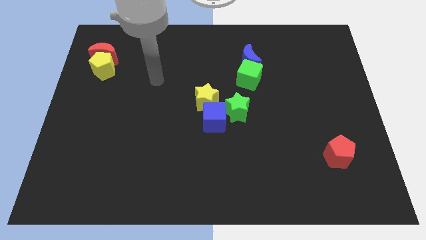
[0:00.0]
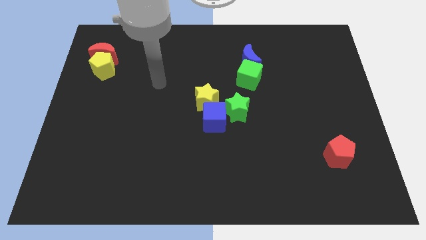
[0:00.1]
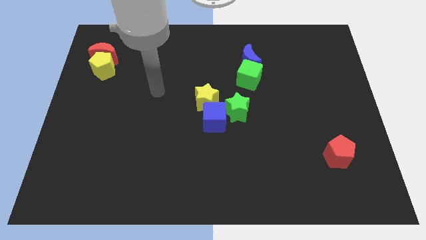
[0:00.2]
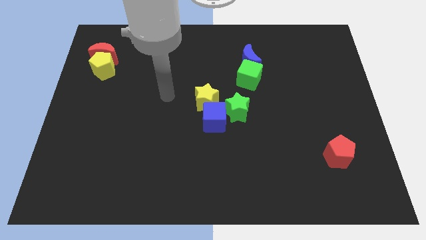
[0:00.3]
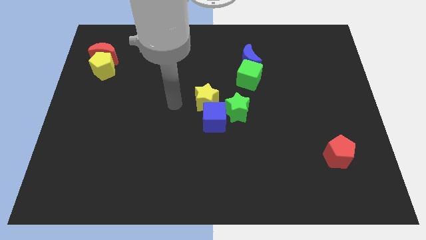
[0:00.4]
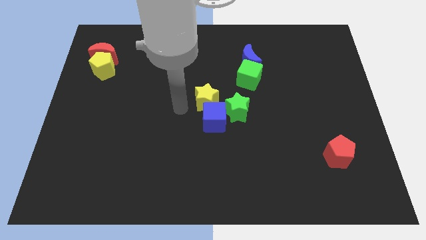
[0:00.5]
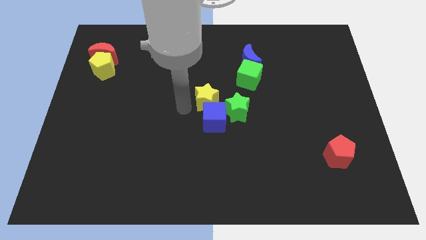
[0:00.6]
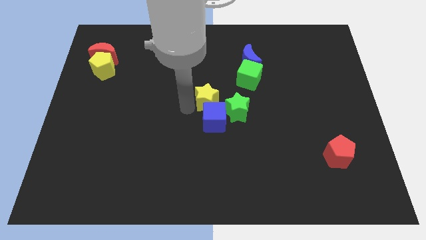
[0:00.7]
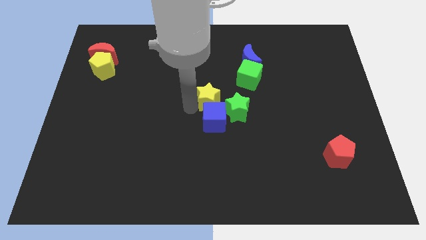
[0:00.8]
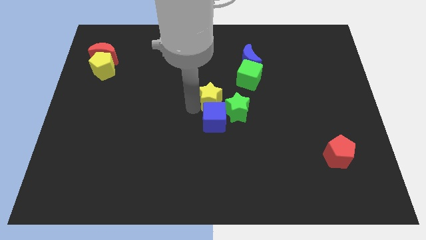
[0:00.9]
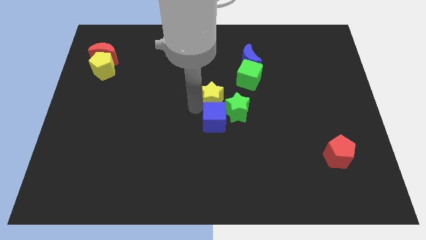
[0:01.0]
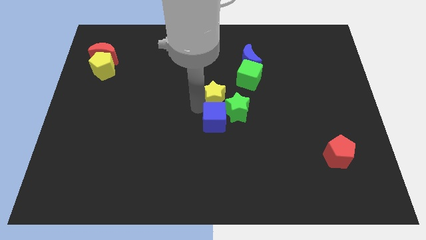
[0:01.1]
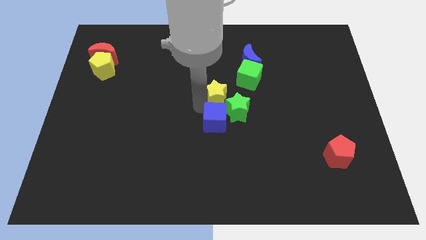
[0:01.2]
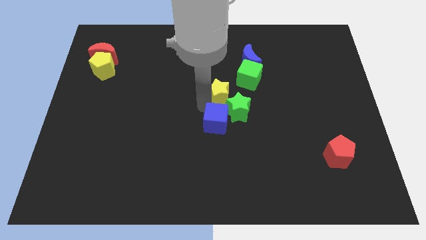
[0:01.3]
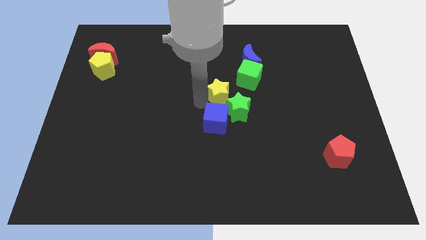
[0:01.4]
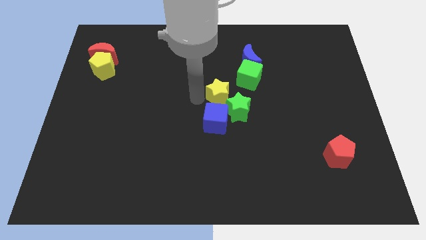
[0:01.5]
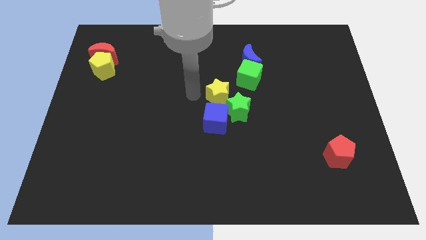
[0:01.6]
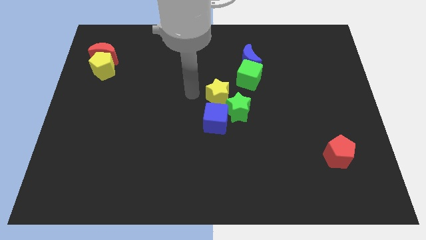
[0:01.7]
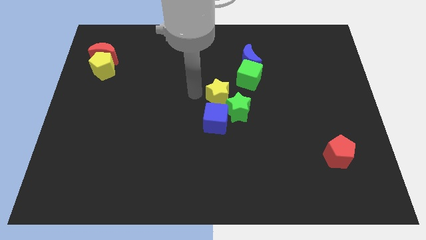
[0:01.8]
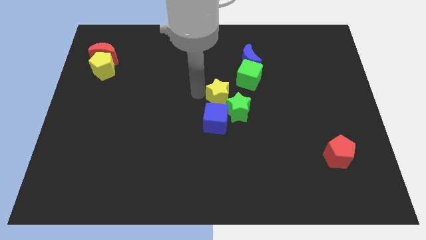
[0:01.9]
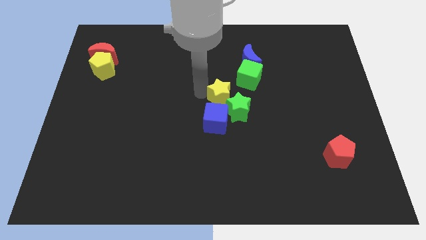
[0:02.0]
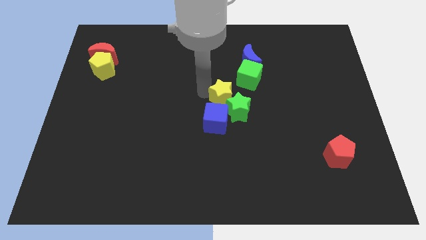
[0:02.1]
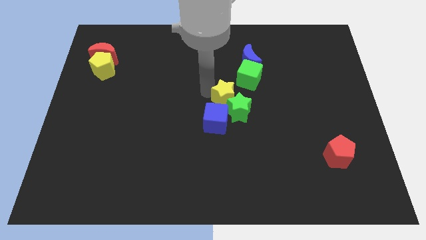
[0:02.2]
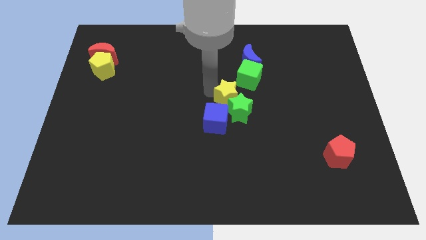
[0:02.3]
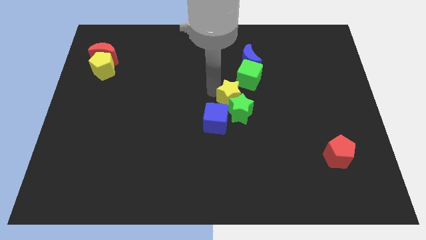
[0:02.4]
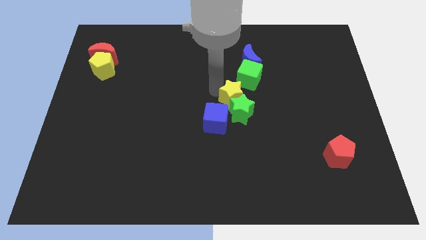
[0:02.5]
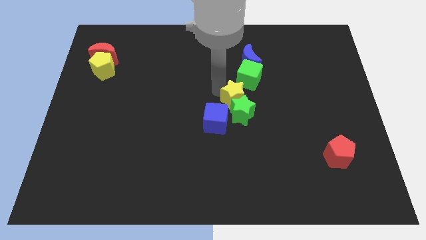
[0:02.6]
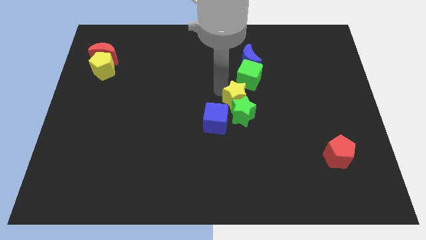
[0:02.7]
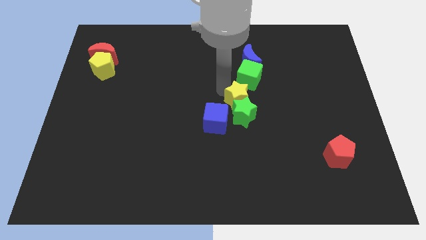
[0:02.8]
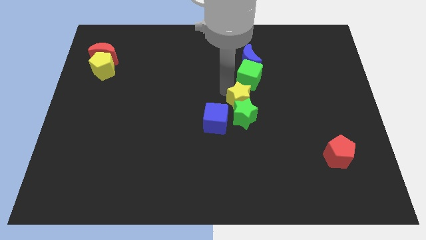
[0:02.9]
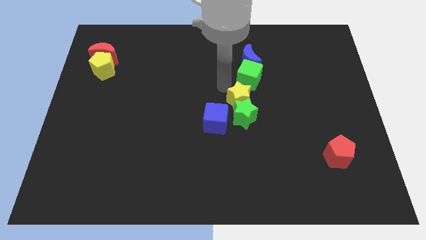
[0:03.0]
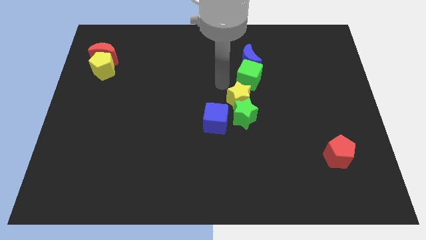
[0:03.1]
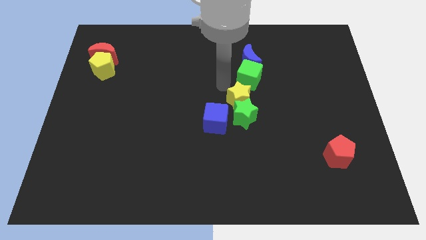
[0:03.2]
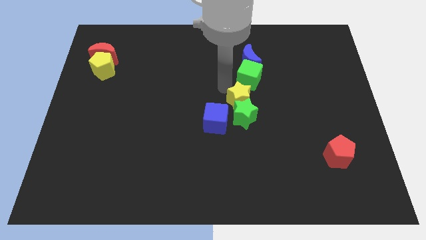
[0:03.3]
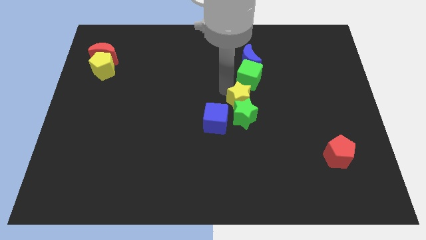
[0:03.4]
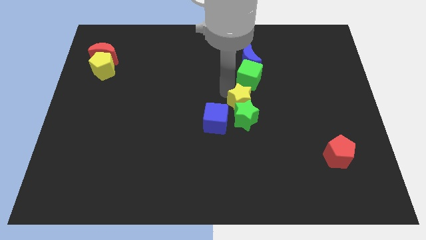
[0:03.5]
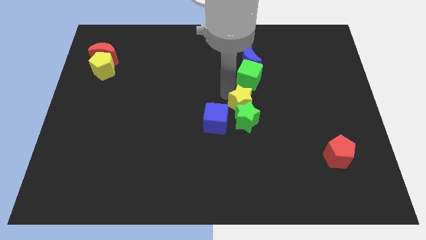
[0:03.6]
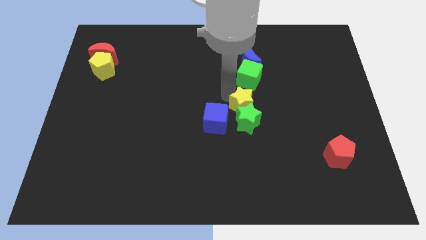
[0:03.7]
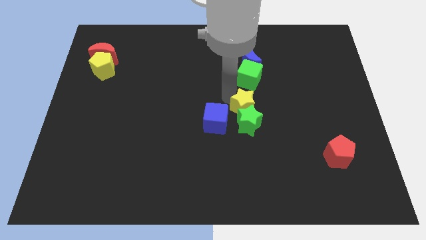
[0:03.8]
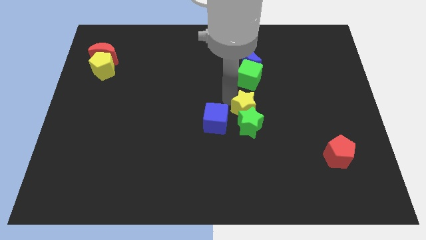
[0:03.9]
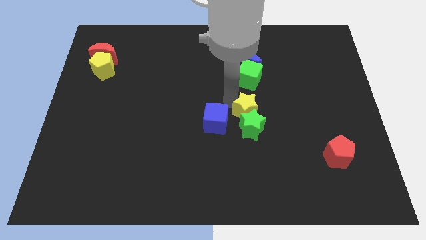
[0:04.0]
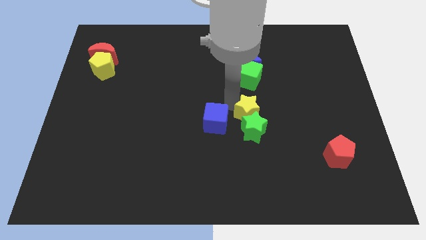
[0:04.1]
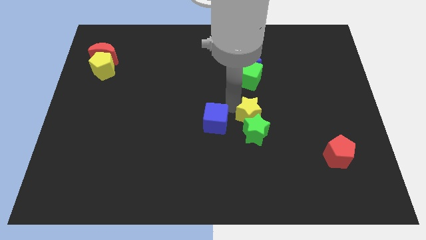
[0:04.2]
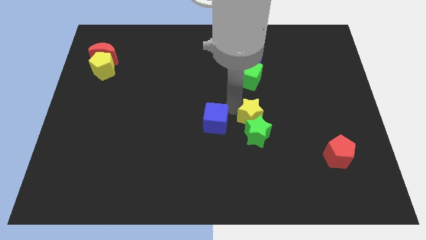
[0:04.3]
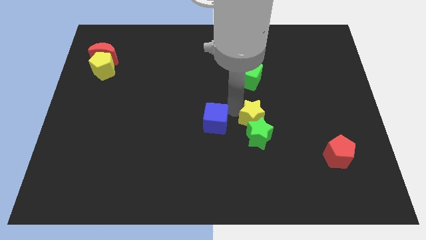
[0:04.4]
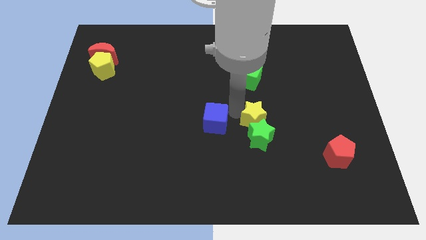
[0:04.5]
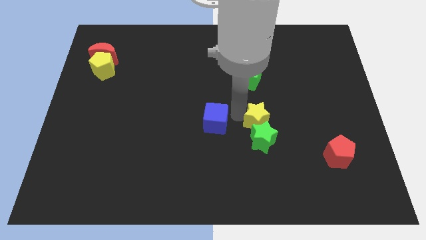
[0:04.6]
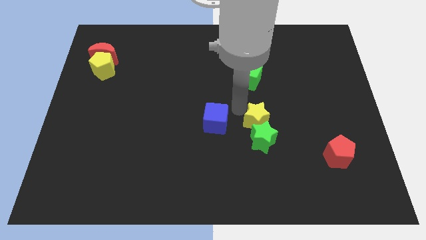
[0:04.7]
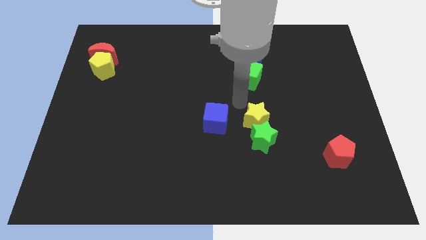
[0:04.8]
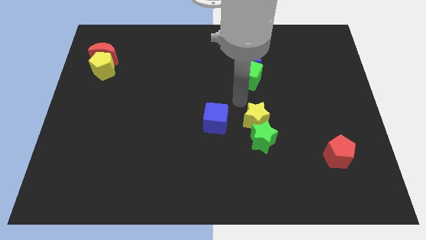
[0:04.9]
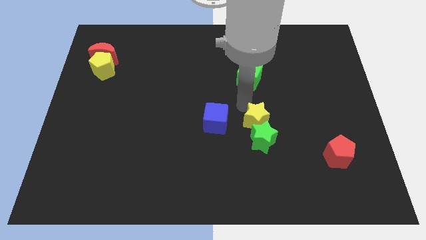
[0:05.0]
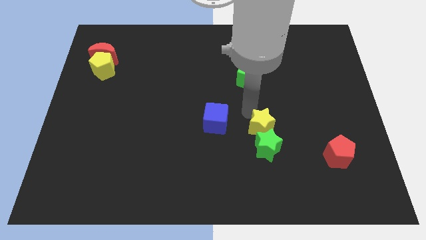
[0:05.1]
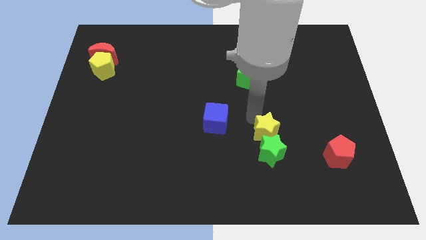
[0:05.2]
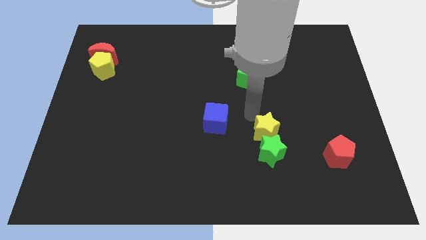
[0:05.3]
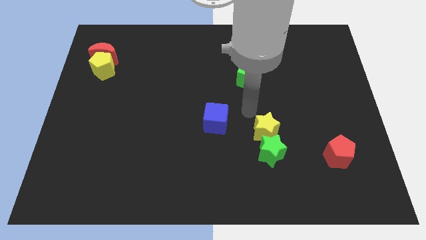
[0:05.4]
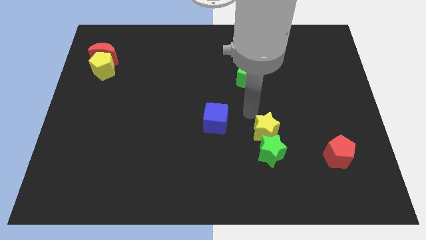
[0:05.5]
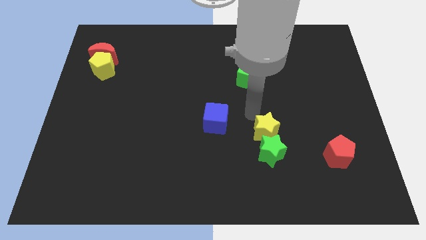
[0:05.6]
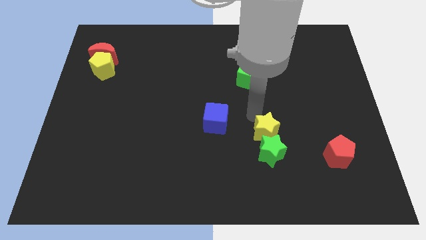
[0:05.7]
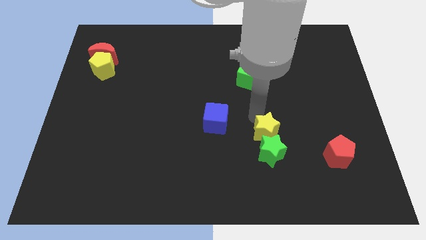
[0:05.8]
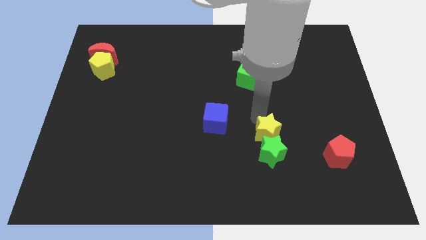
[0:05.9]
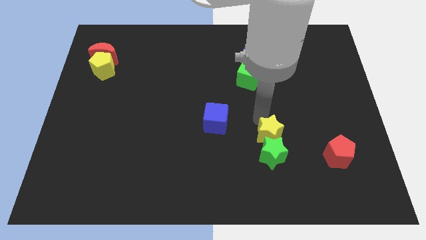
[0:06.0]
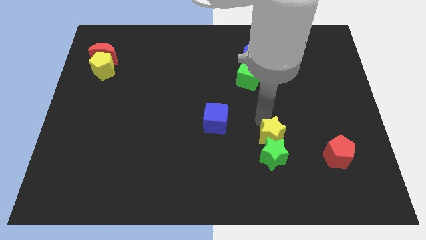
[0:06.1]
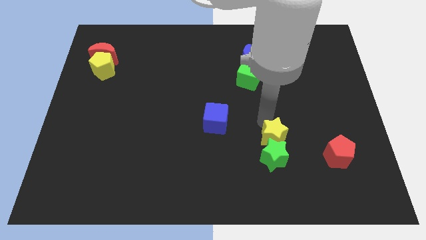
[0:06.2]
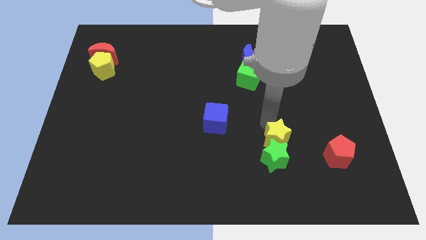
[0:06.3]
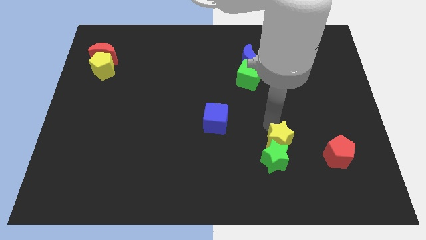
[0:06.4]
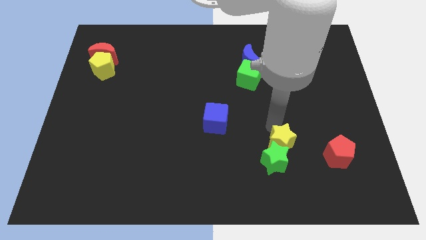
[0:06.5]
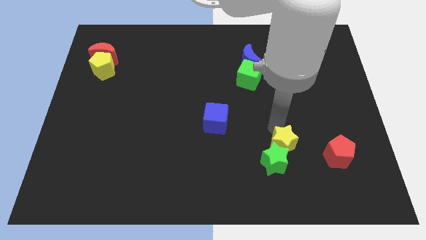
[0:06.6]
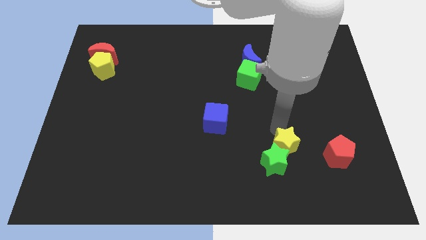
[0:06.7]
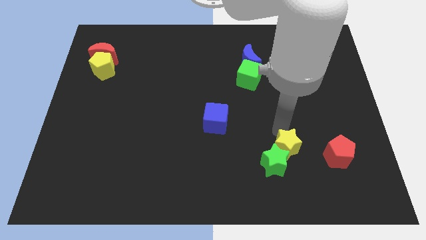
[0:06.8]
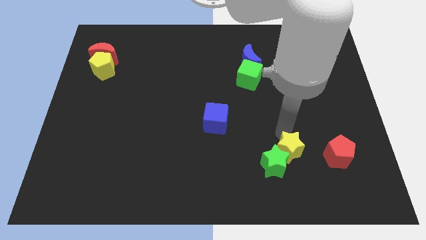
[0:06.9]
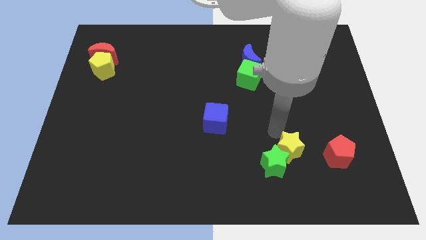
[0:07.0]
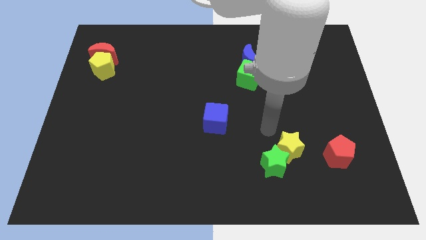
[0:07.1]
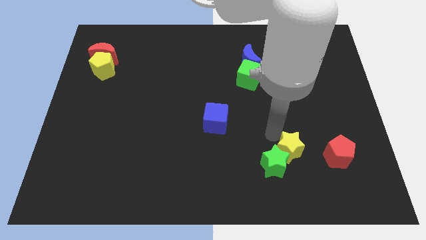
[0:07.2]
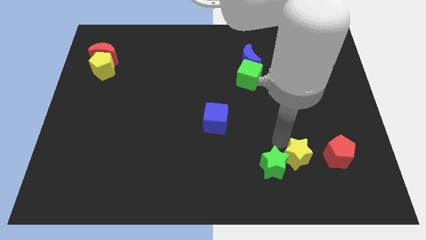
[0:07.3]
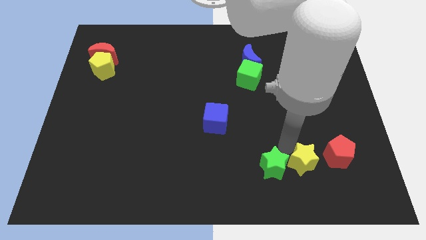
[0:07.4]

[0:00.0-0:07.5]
push the yellow star to the bottom left of the red pentagon
